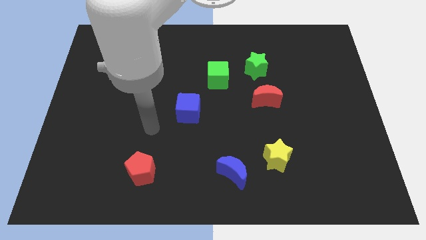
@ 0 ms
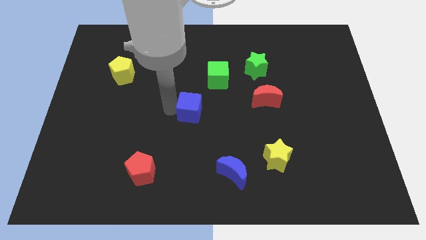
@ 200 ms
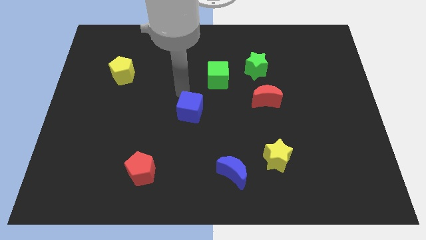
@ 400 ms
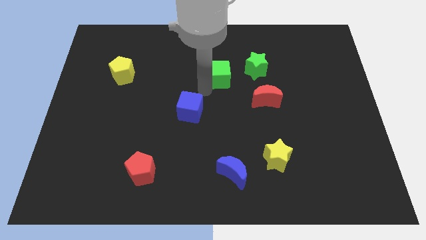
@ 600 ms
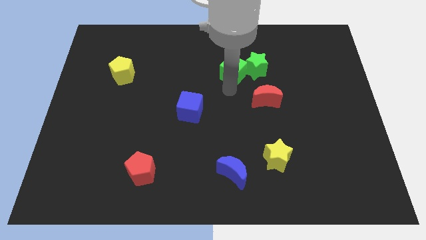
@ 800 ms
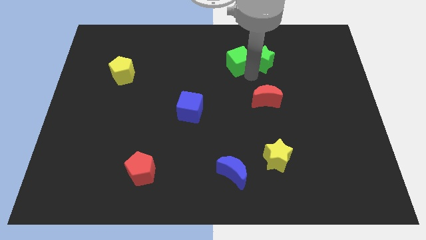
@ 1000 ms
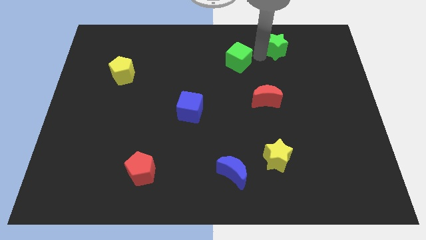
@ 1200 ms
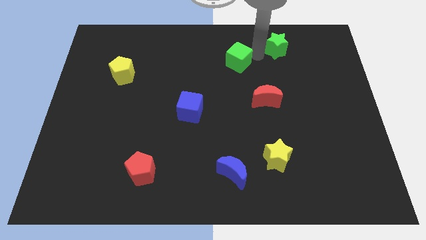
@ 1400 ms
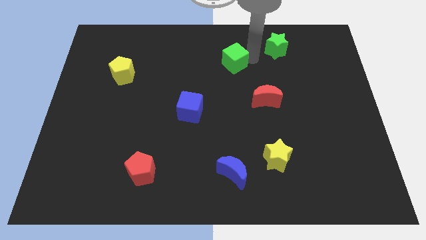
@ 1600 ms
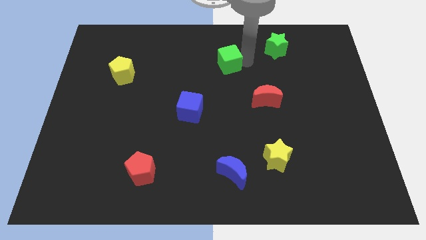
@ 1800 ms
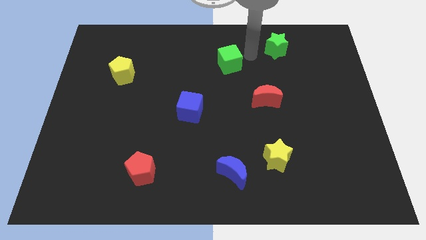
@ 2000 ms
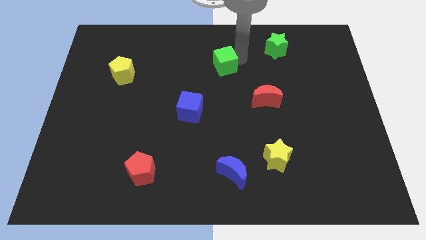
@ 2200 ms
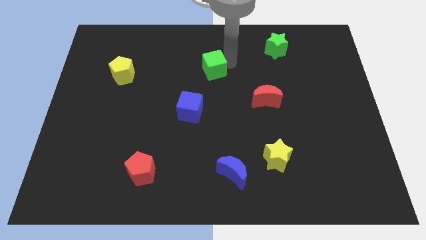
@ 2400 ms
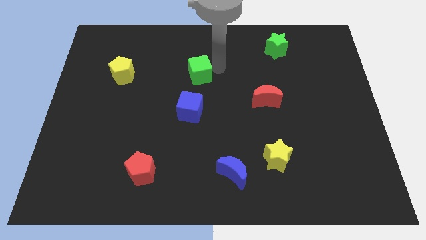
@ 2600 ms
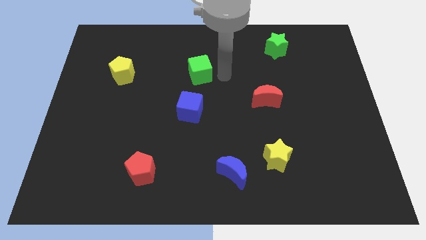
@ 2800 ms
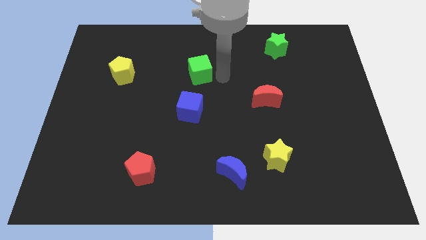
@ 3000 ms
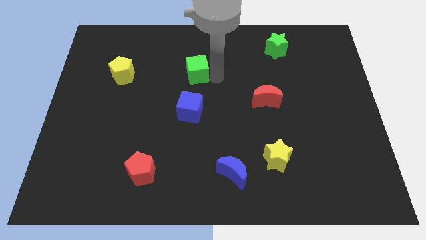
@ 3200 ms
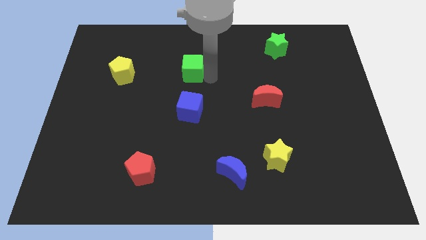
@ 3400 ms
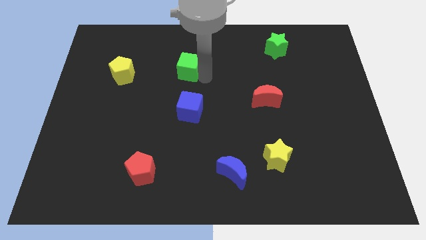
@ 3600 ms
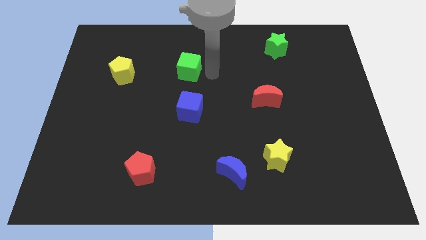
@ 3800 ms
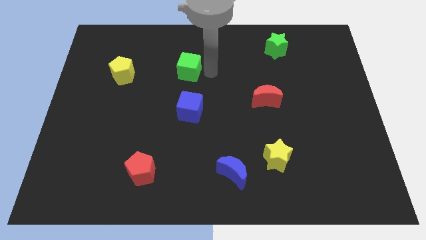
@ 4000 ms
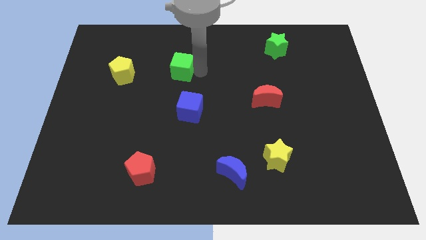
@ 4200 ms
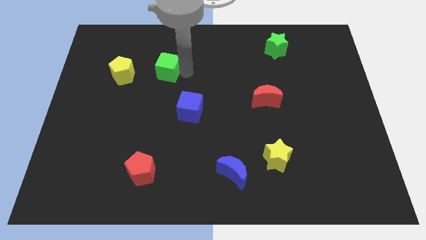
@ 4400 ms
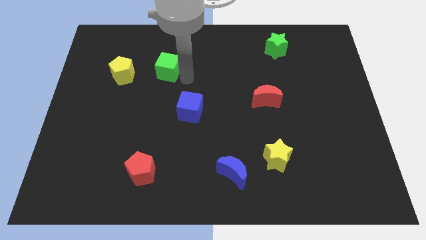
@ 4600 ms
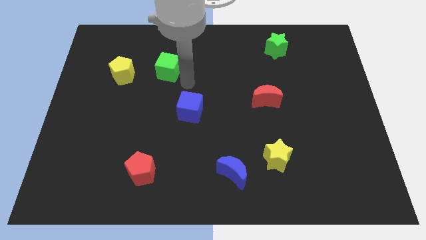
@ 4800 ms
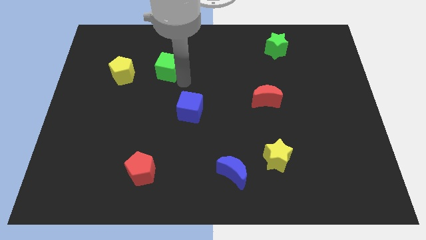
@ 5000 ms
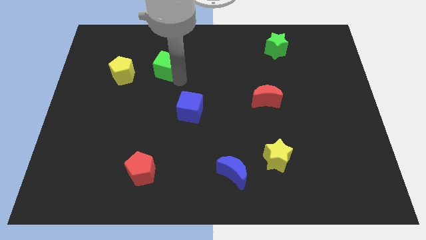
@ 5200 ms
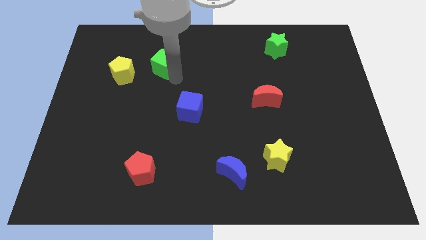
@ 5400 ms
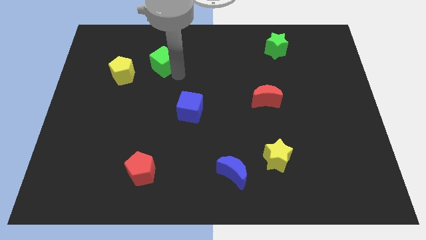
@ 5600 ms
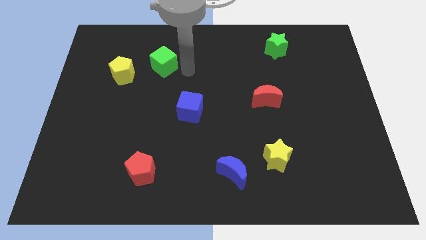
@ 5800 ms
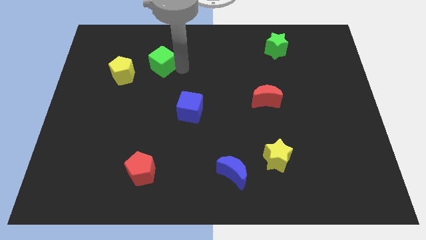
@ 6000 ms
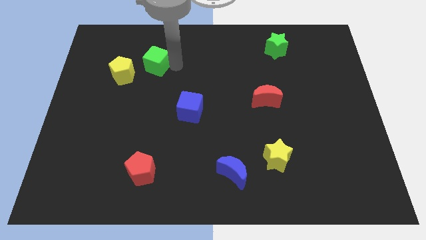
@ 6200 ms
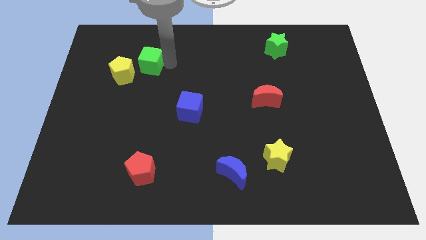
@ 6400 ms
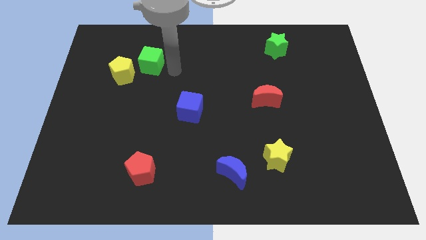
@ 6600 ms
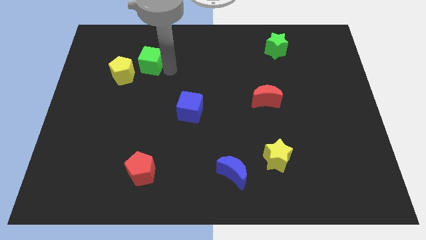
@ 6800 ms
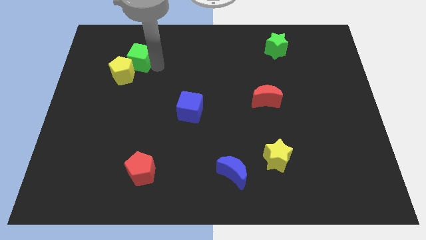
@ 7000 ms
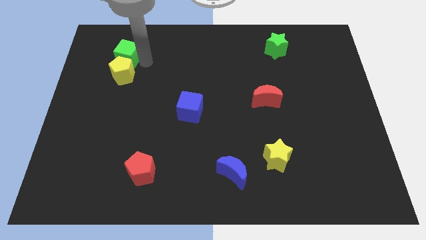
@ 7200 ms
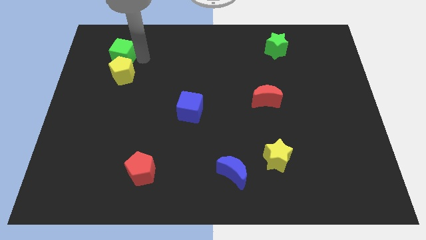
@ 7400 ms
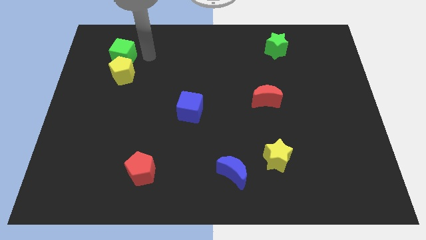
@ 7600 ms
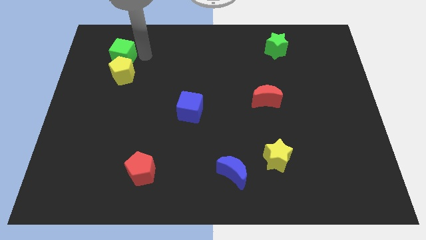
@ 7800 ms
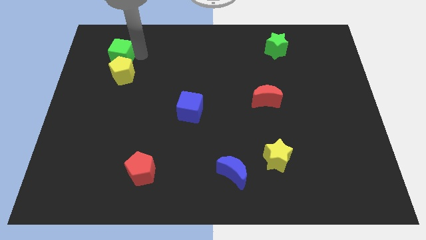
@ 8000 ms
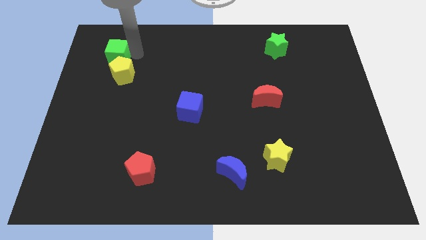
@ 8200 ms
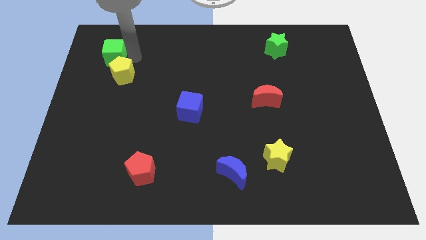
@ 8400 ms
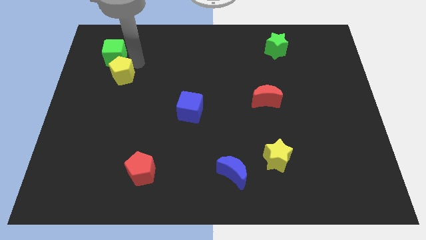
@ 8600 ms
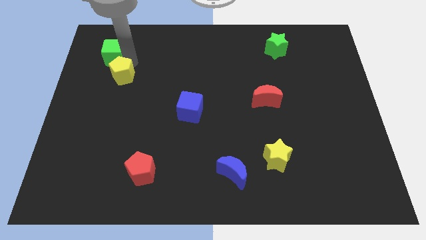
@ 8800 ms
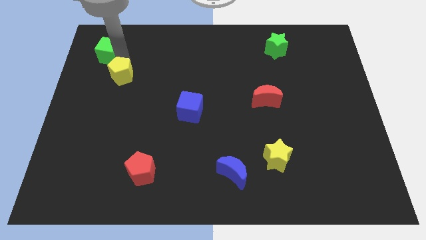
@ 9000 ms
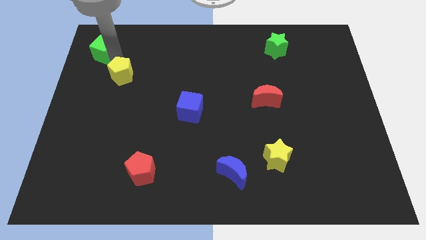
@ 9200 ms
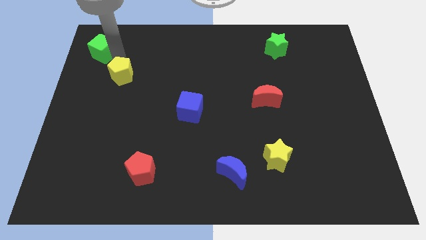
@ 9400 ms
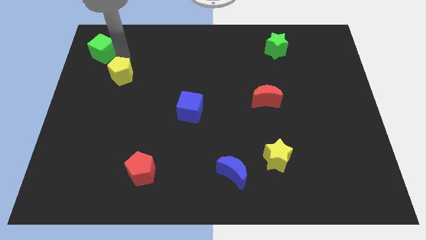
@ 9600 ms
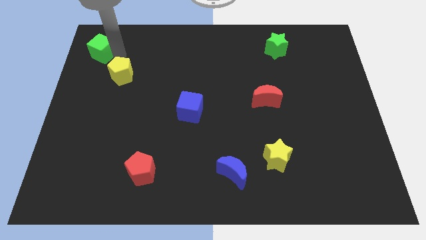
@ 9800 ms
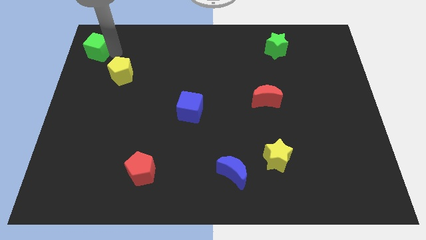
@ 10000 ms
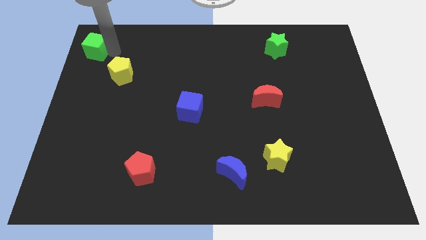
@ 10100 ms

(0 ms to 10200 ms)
put the green cube to the upper left corner

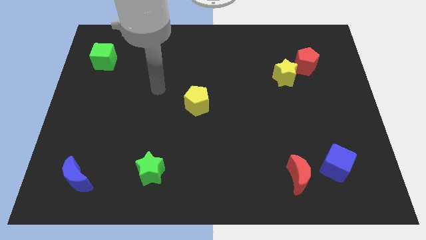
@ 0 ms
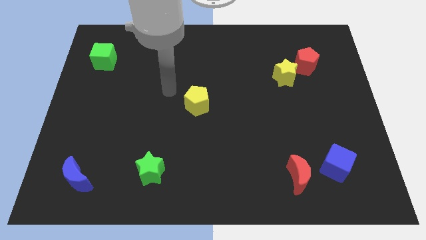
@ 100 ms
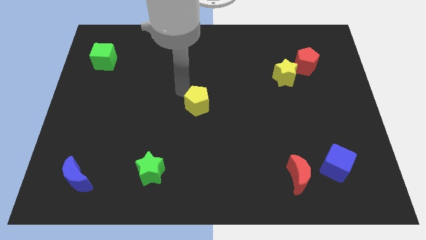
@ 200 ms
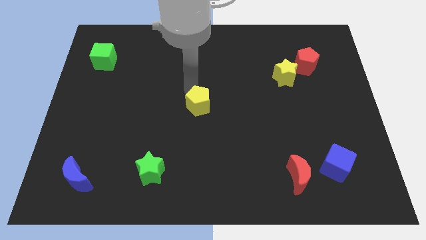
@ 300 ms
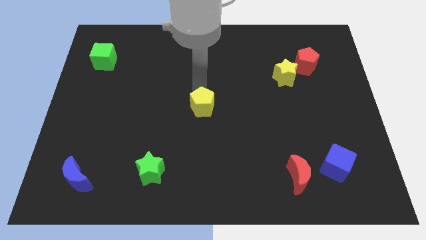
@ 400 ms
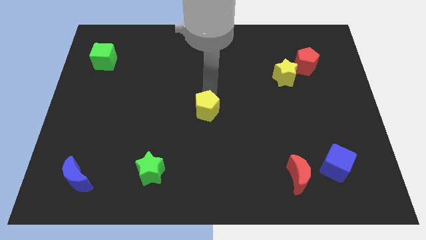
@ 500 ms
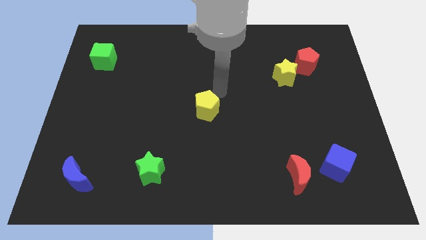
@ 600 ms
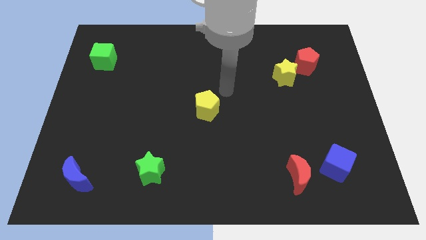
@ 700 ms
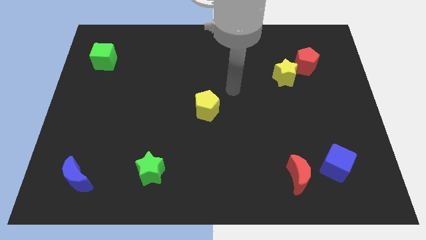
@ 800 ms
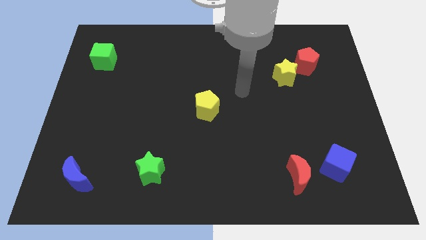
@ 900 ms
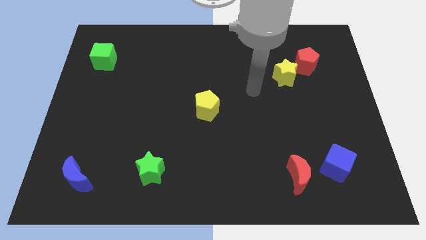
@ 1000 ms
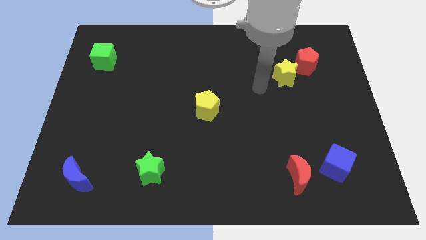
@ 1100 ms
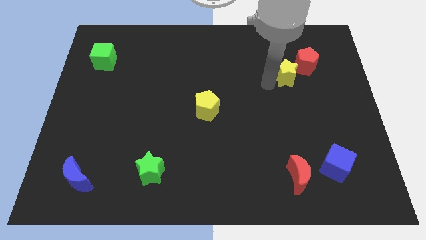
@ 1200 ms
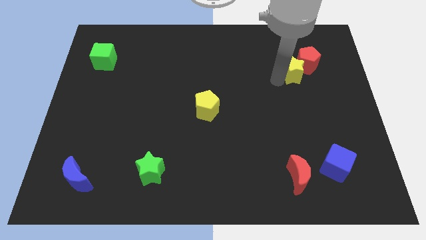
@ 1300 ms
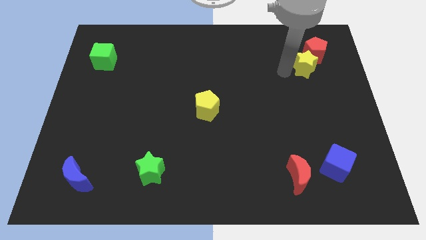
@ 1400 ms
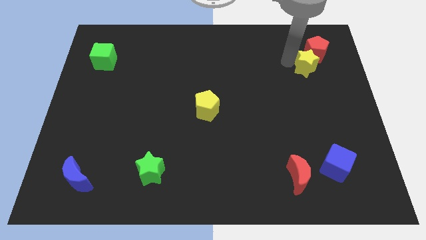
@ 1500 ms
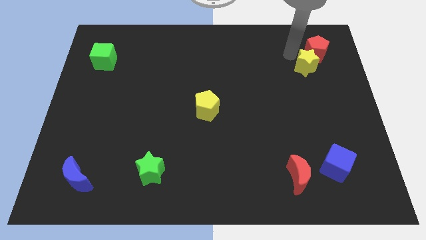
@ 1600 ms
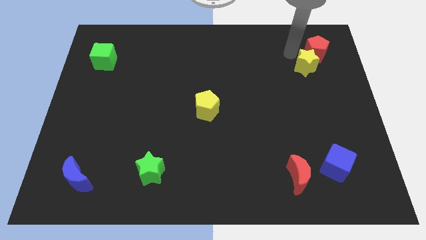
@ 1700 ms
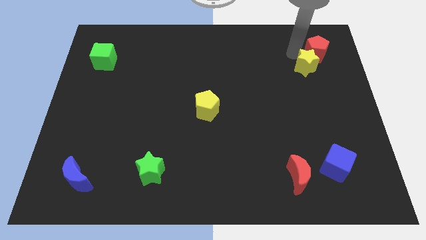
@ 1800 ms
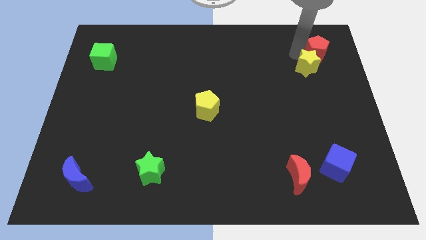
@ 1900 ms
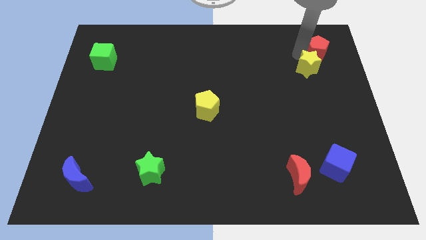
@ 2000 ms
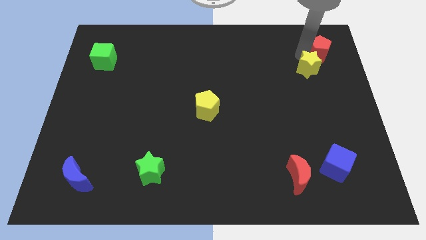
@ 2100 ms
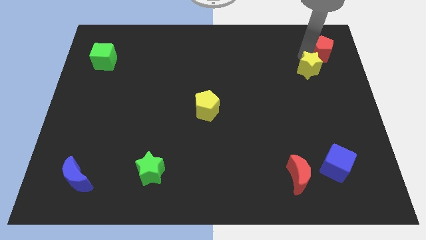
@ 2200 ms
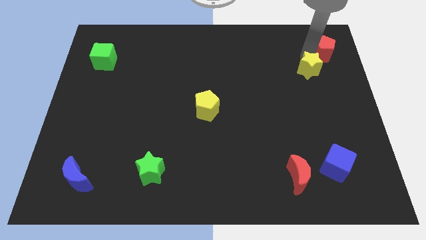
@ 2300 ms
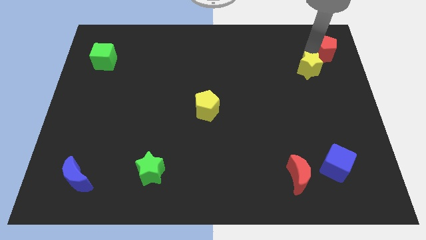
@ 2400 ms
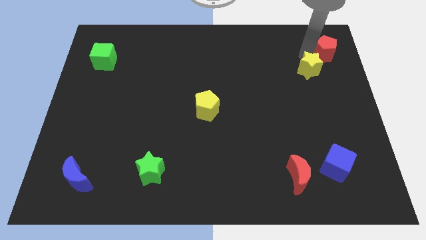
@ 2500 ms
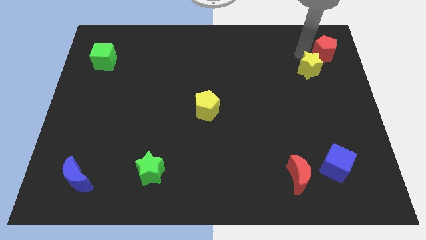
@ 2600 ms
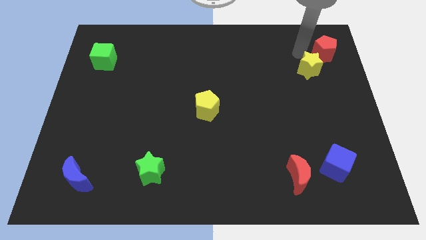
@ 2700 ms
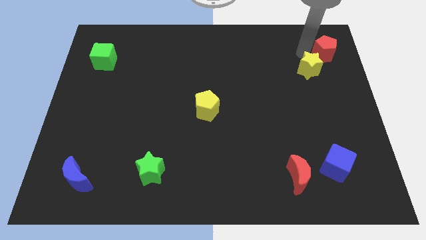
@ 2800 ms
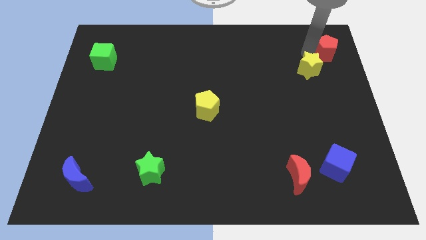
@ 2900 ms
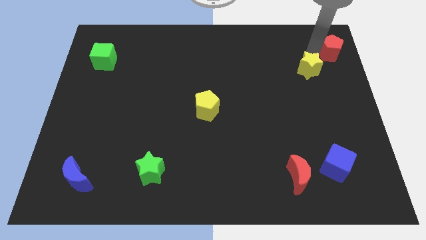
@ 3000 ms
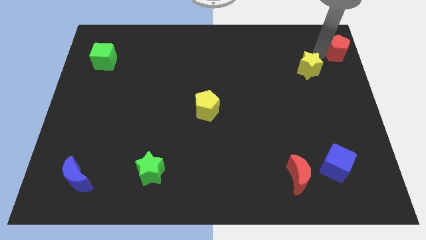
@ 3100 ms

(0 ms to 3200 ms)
slide the red pentagon to the top right
